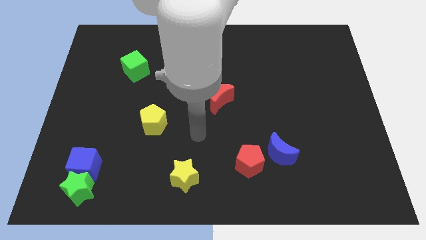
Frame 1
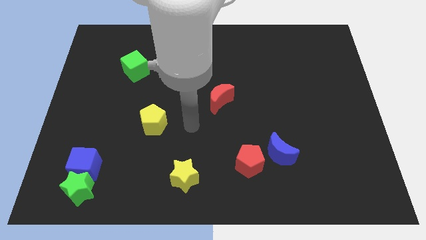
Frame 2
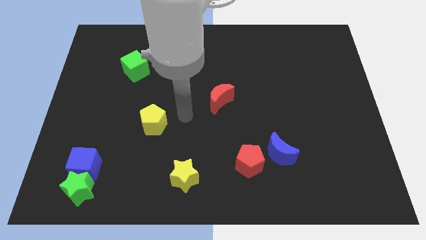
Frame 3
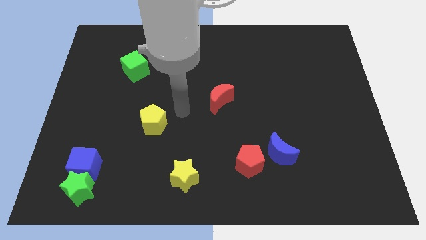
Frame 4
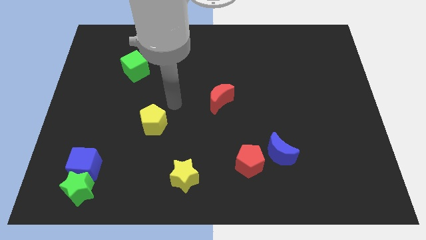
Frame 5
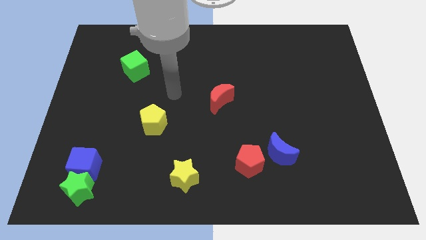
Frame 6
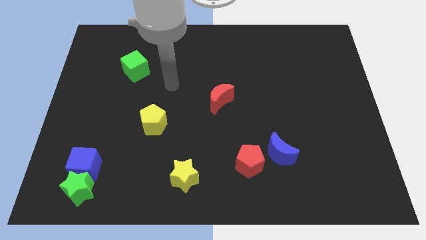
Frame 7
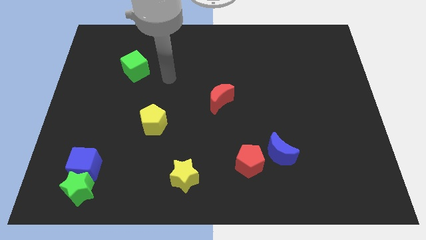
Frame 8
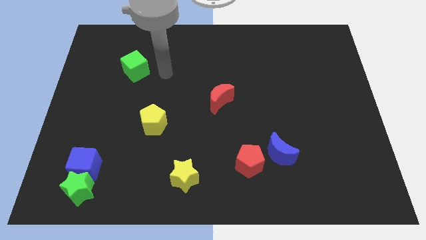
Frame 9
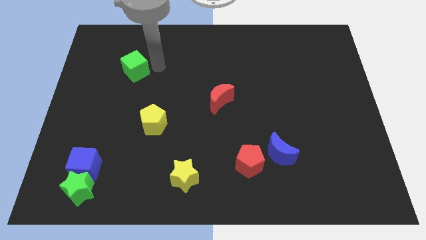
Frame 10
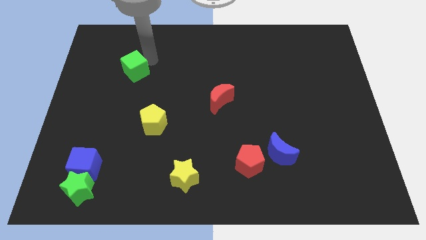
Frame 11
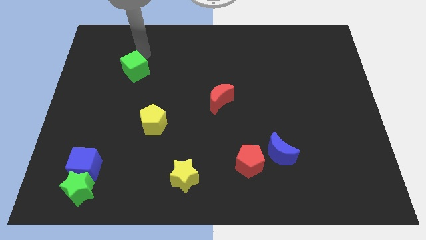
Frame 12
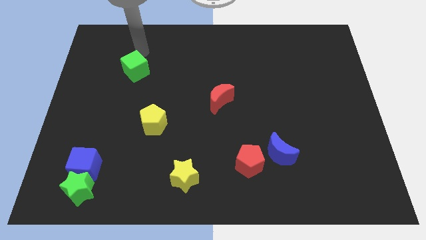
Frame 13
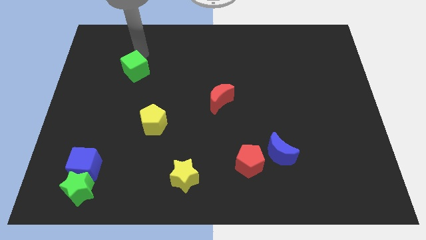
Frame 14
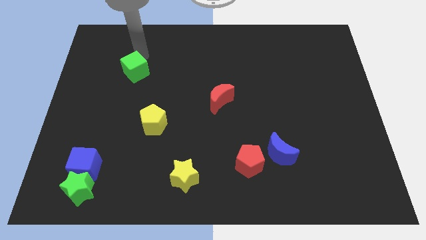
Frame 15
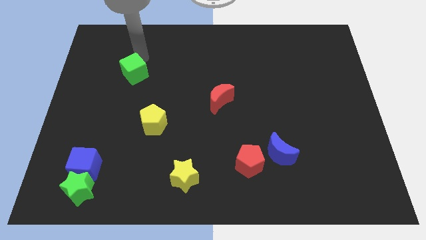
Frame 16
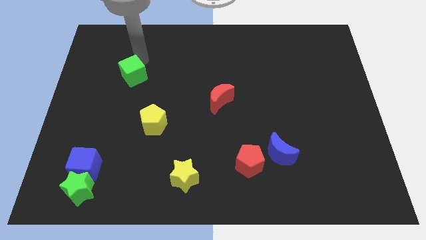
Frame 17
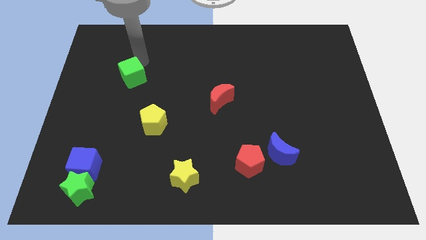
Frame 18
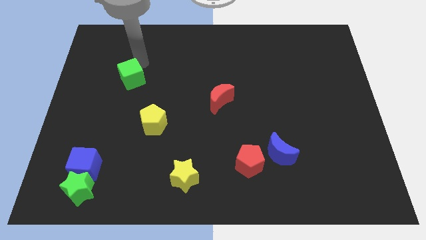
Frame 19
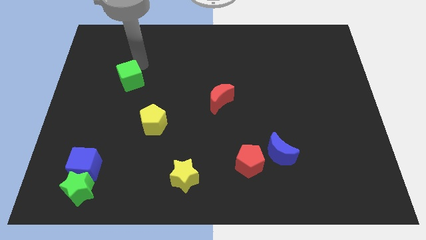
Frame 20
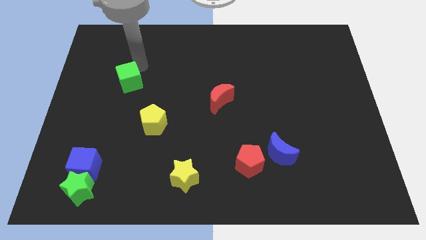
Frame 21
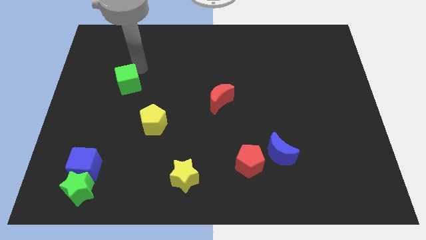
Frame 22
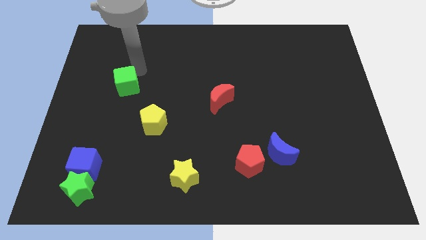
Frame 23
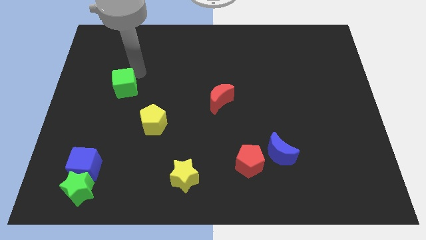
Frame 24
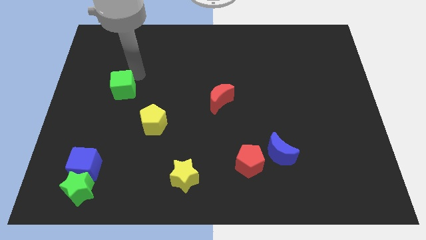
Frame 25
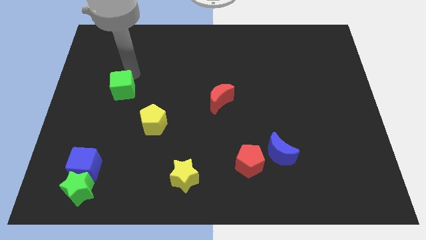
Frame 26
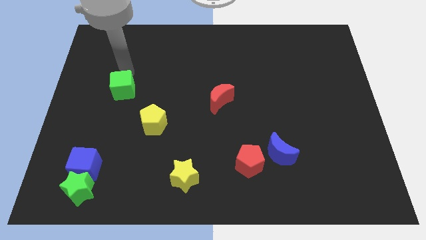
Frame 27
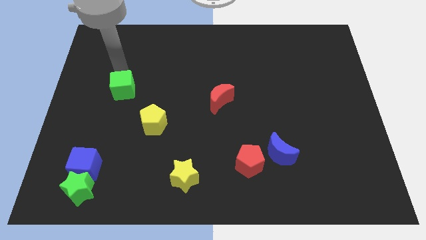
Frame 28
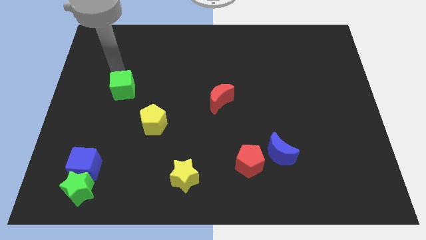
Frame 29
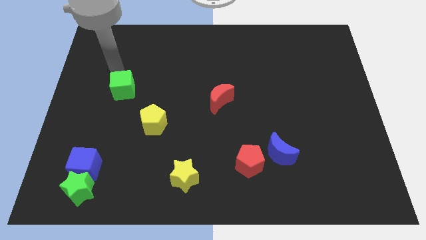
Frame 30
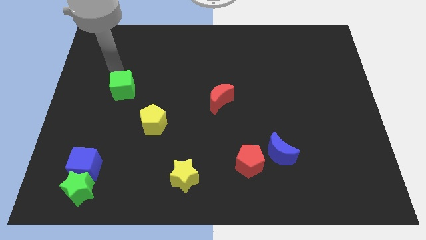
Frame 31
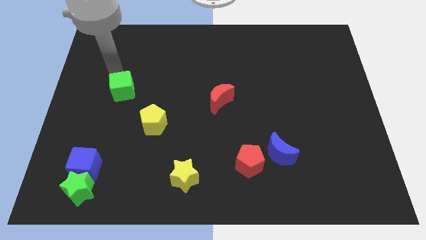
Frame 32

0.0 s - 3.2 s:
slightly push the green cube down

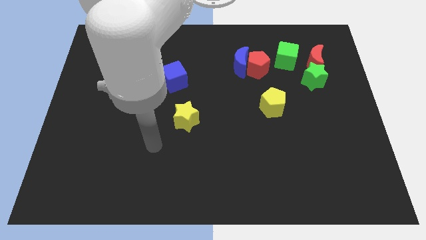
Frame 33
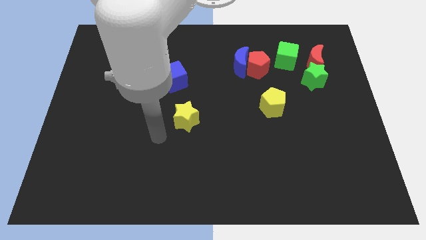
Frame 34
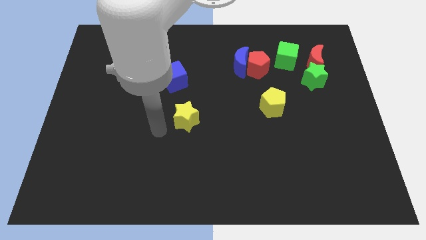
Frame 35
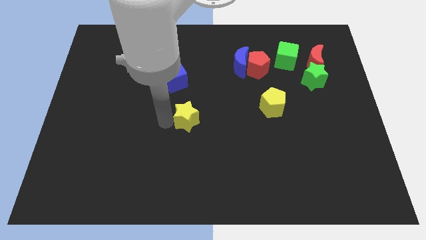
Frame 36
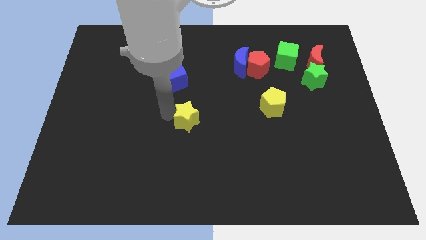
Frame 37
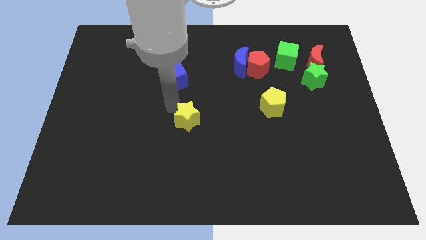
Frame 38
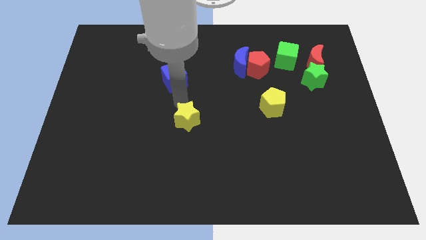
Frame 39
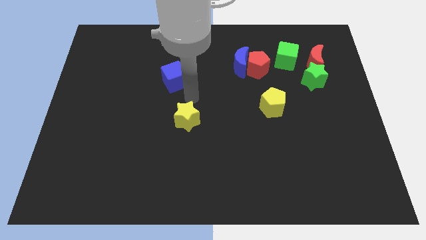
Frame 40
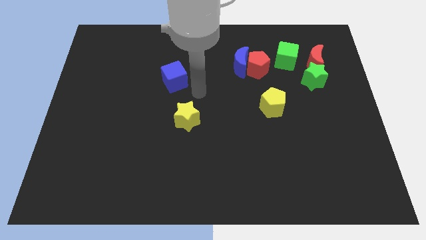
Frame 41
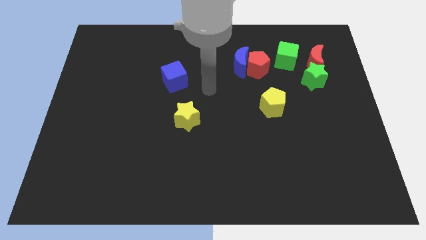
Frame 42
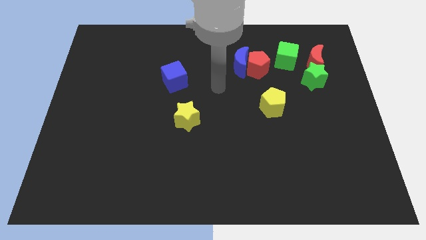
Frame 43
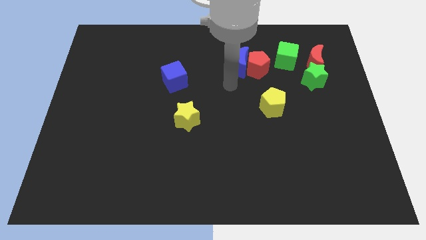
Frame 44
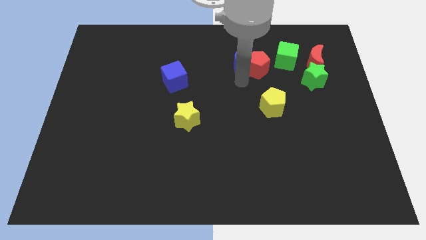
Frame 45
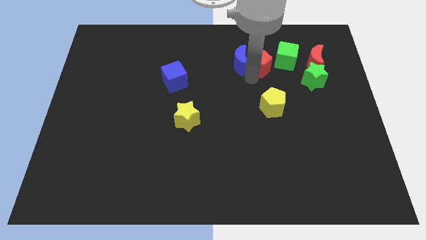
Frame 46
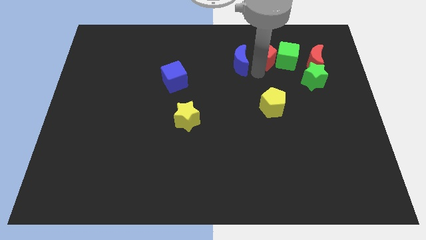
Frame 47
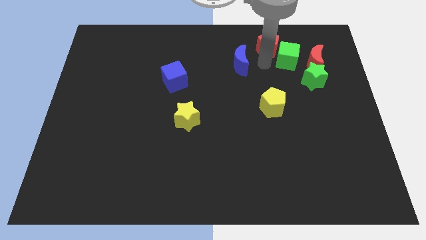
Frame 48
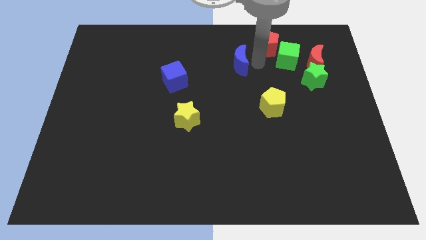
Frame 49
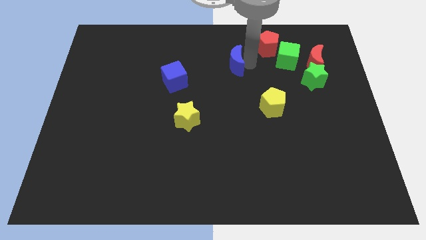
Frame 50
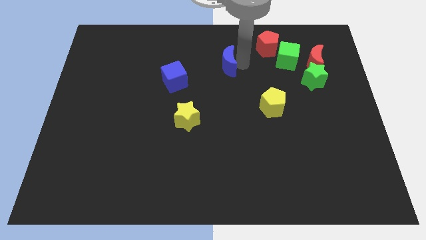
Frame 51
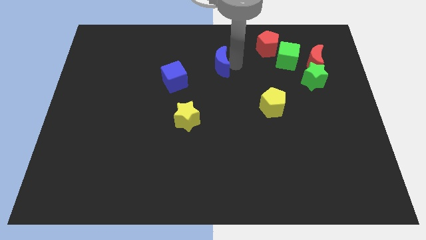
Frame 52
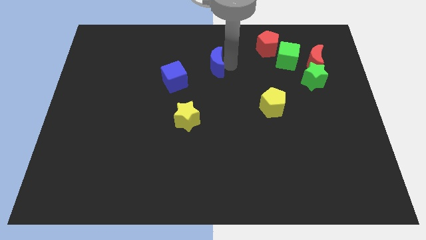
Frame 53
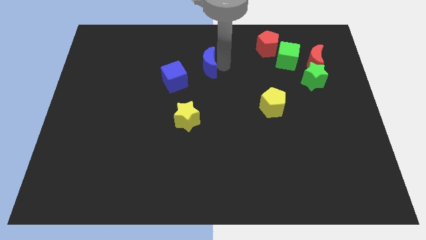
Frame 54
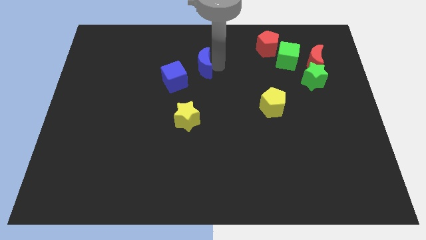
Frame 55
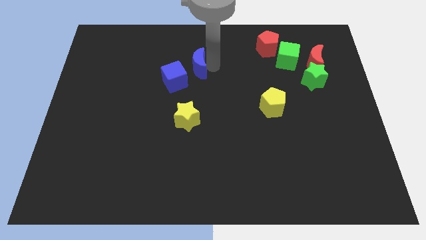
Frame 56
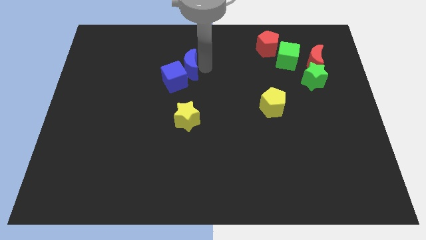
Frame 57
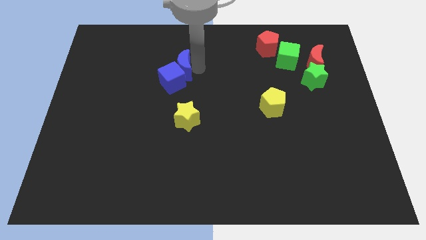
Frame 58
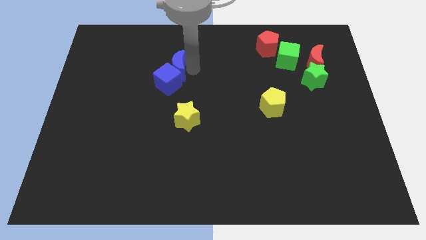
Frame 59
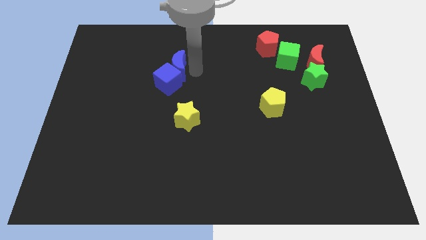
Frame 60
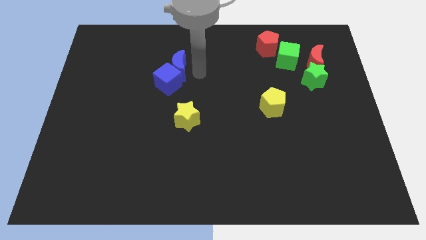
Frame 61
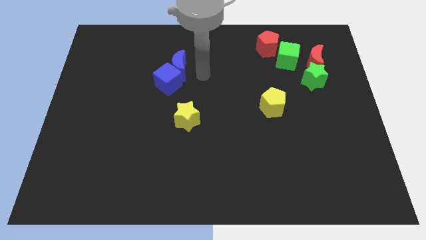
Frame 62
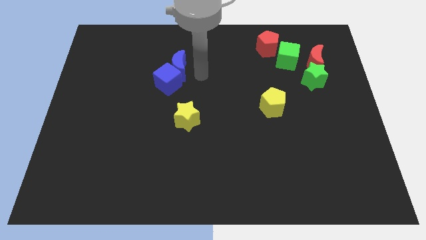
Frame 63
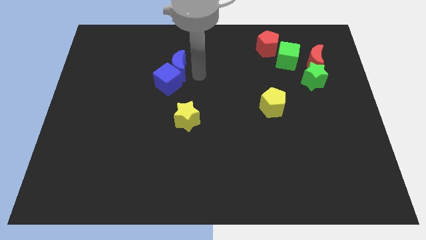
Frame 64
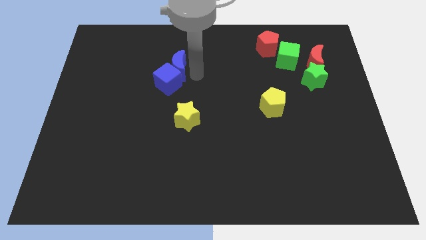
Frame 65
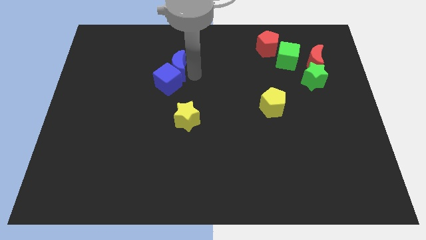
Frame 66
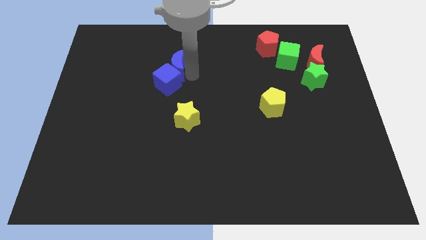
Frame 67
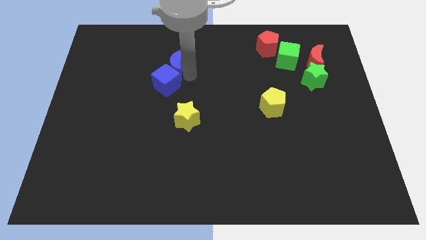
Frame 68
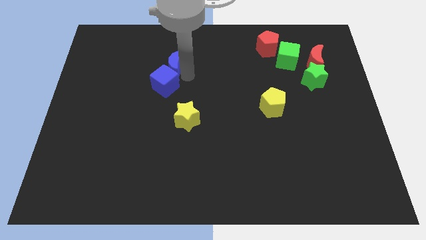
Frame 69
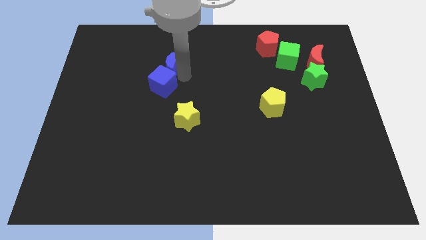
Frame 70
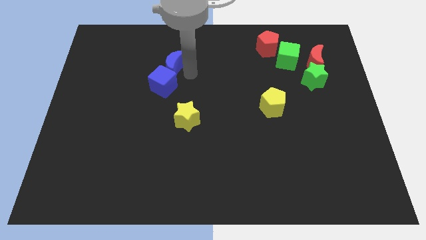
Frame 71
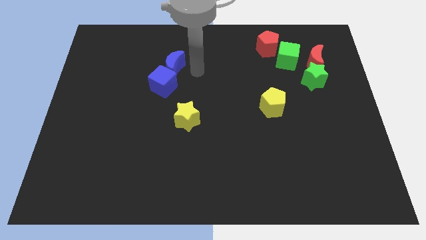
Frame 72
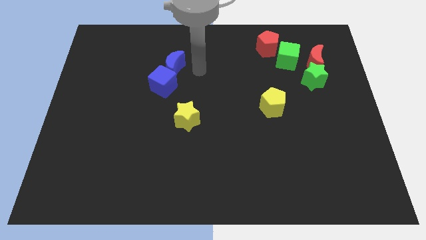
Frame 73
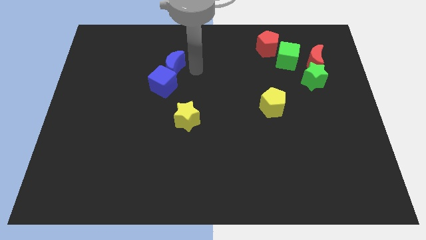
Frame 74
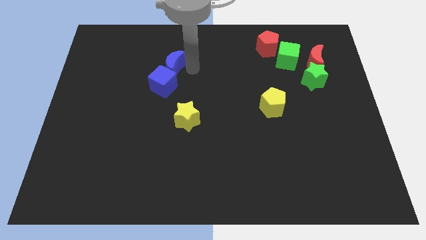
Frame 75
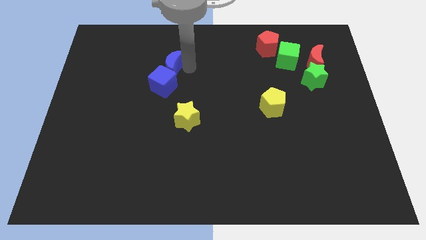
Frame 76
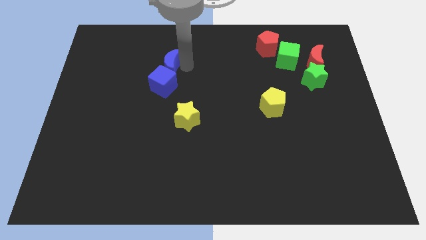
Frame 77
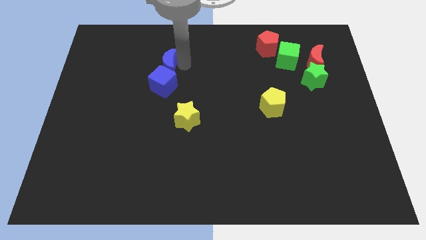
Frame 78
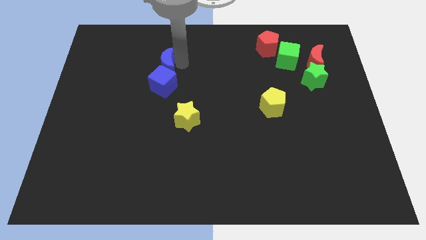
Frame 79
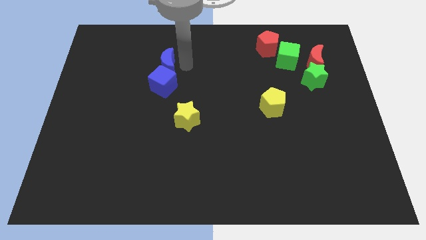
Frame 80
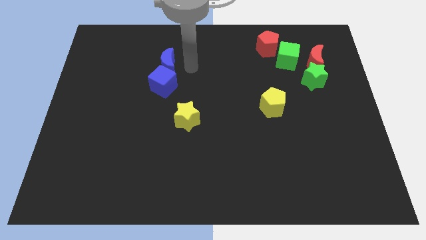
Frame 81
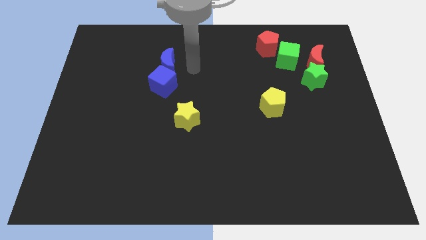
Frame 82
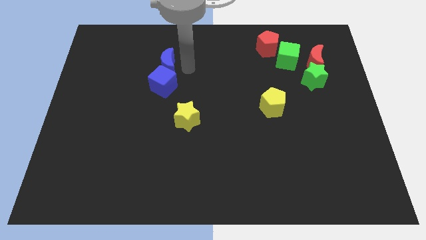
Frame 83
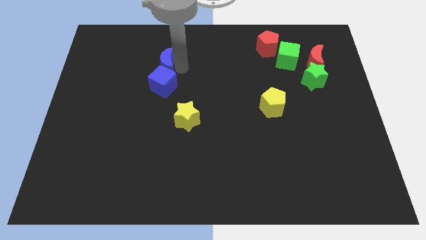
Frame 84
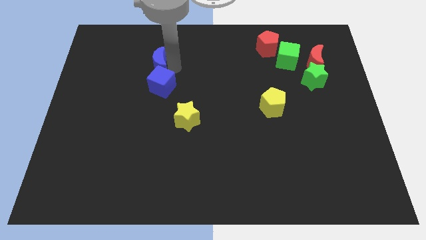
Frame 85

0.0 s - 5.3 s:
move the blue moon left
